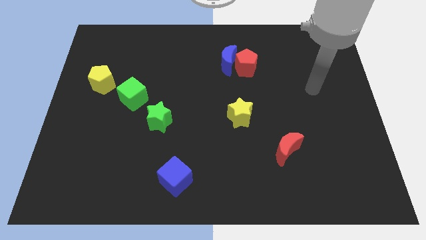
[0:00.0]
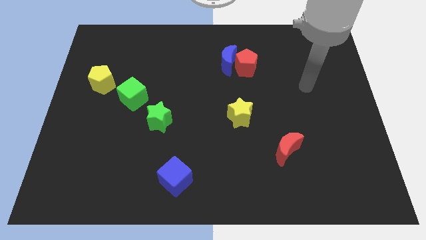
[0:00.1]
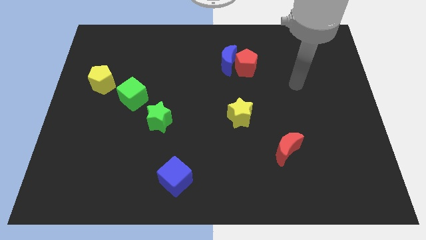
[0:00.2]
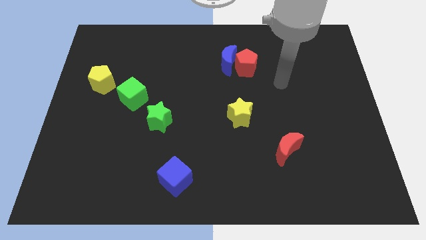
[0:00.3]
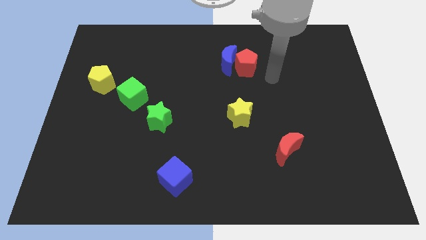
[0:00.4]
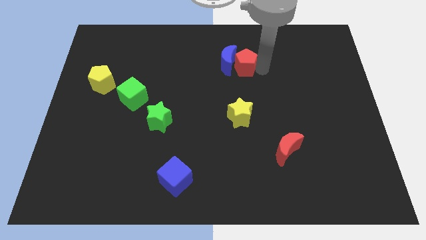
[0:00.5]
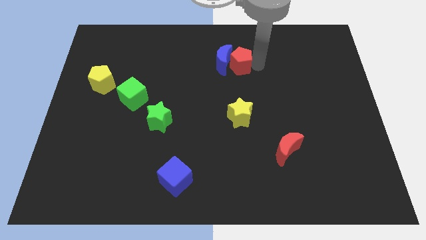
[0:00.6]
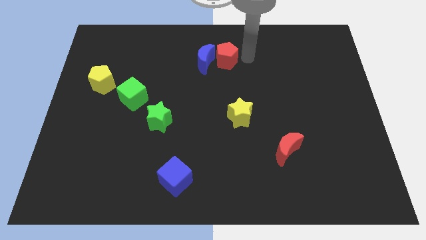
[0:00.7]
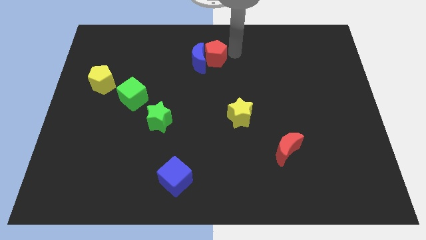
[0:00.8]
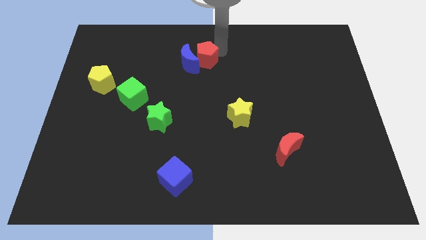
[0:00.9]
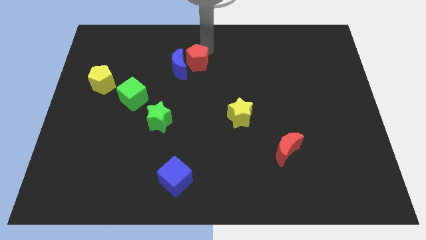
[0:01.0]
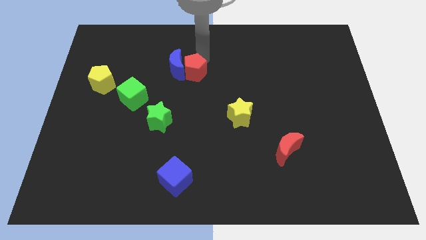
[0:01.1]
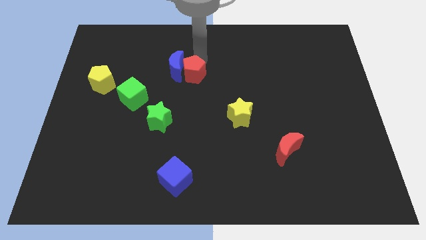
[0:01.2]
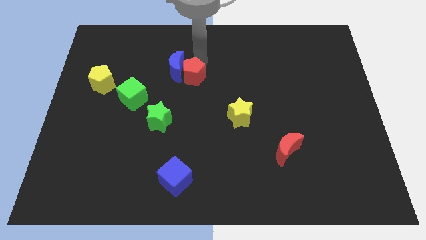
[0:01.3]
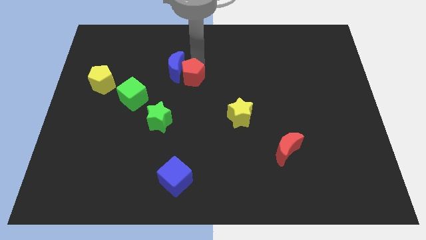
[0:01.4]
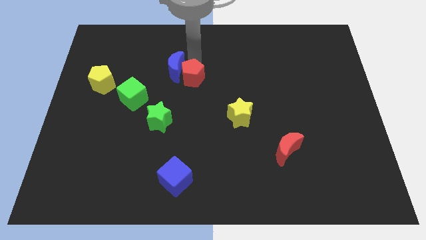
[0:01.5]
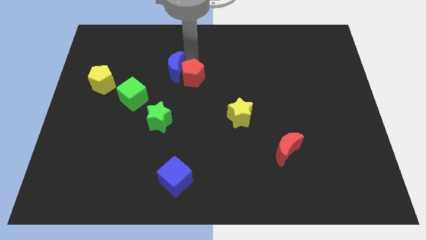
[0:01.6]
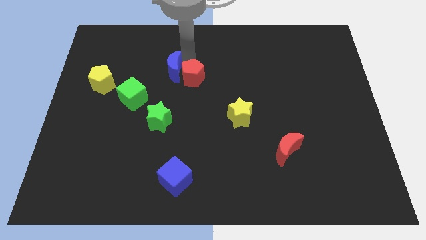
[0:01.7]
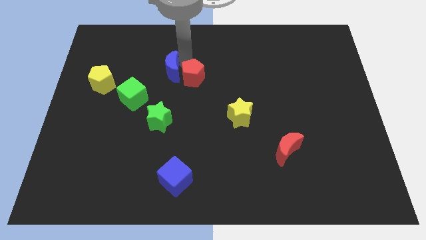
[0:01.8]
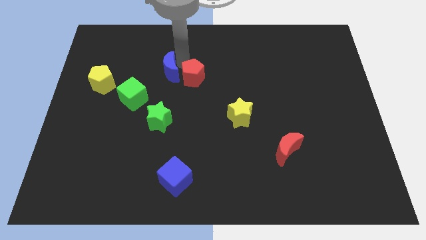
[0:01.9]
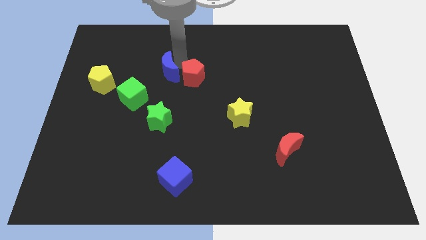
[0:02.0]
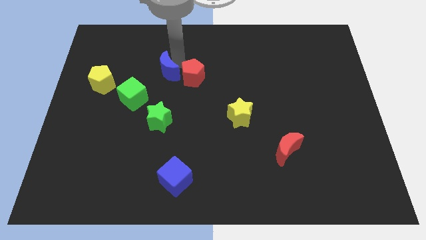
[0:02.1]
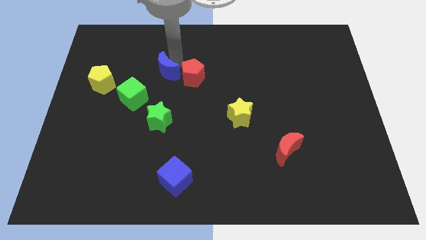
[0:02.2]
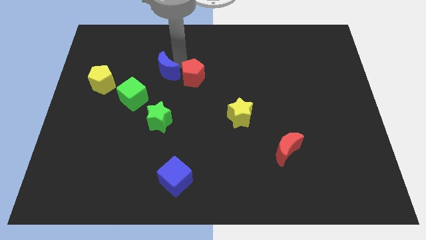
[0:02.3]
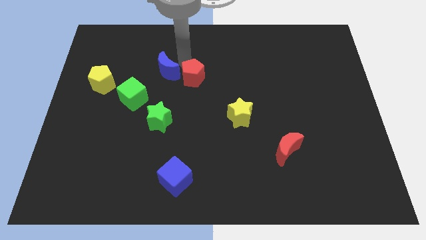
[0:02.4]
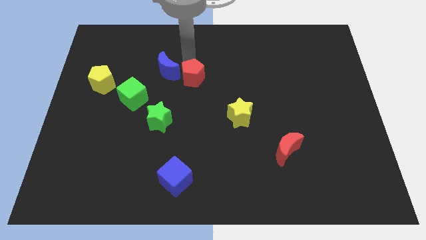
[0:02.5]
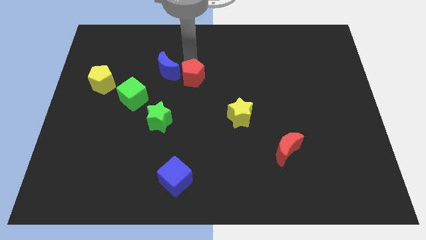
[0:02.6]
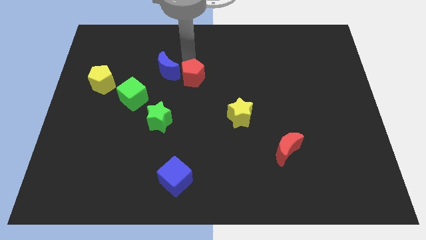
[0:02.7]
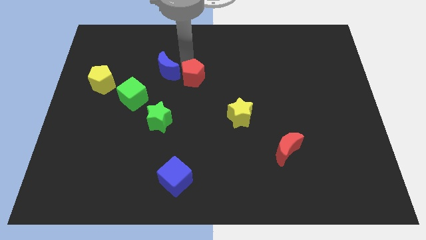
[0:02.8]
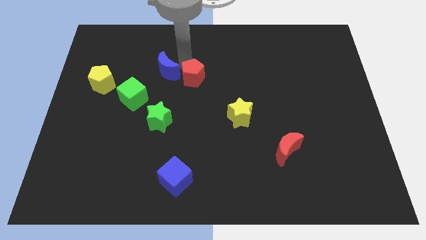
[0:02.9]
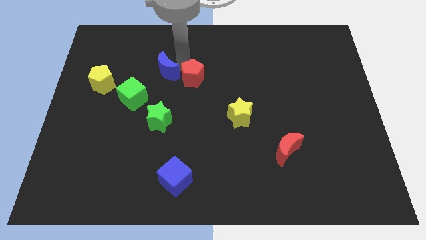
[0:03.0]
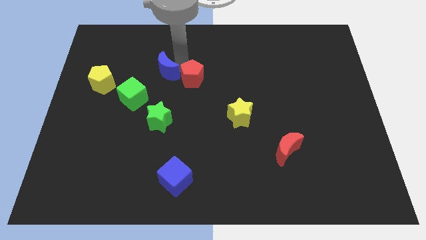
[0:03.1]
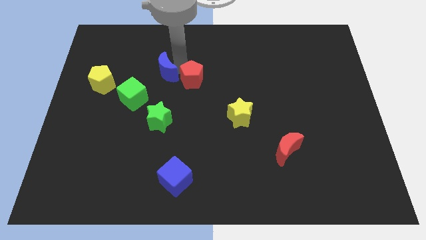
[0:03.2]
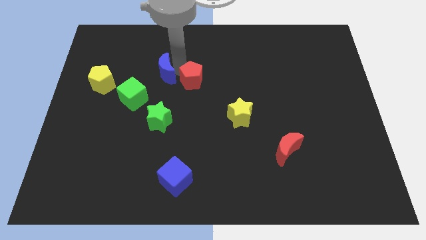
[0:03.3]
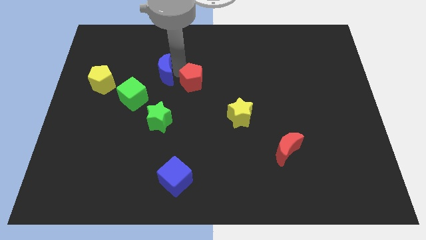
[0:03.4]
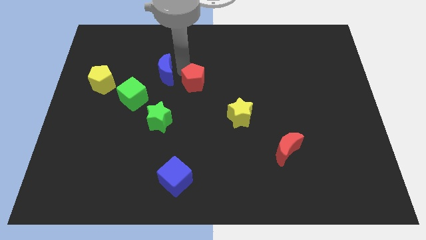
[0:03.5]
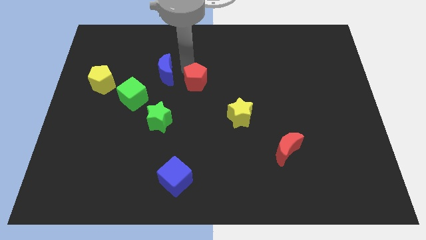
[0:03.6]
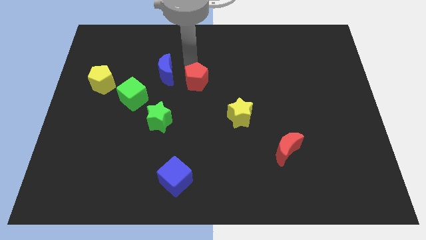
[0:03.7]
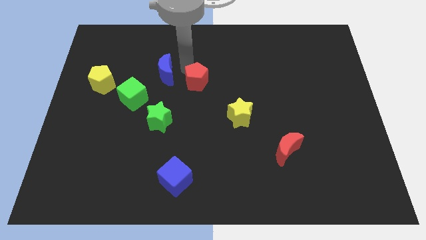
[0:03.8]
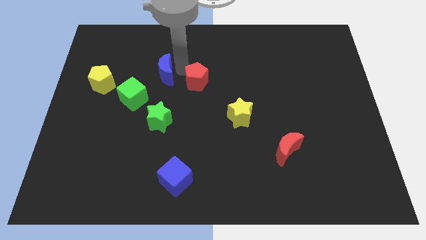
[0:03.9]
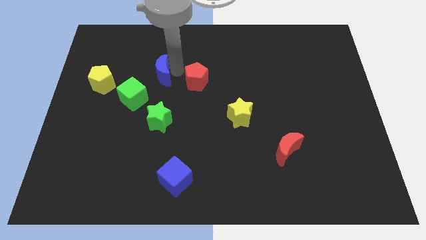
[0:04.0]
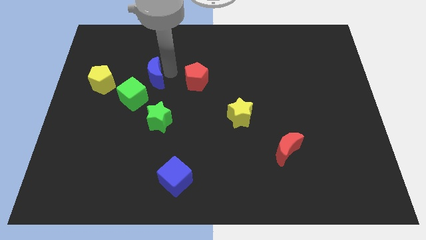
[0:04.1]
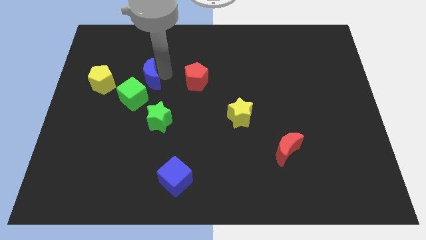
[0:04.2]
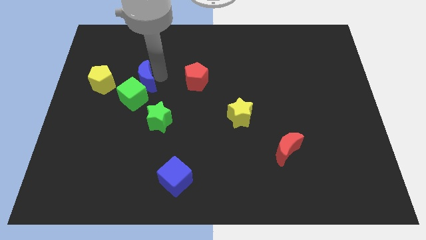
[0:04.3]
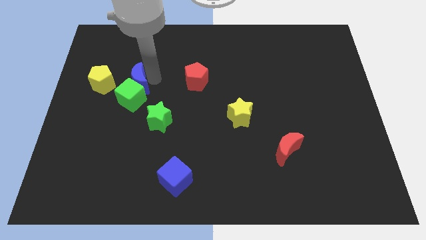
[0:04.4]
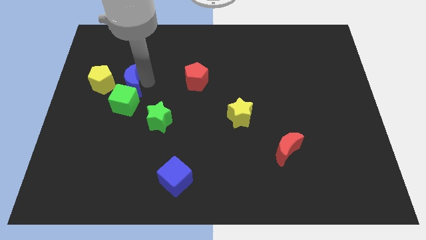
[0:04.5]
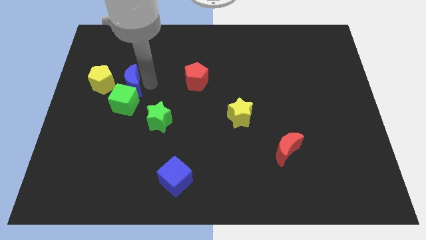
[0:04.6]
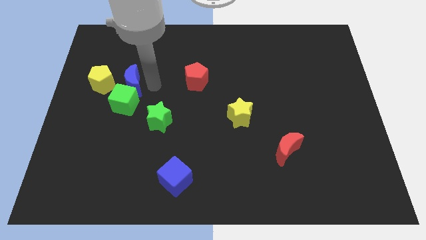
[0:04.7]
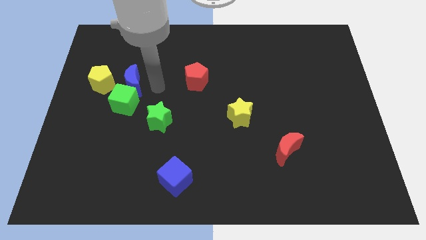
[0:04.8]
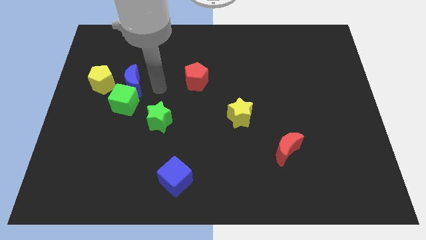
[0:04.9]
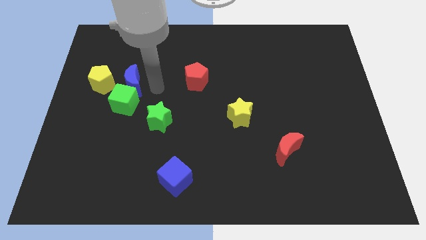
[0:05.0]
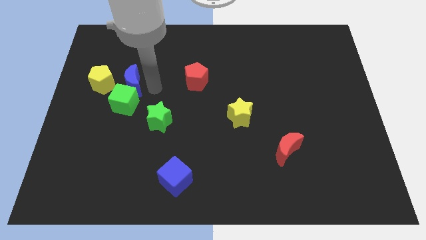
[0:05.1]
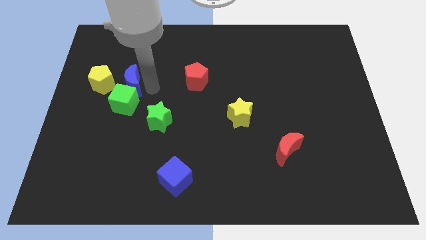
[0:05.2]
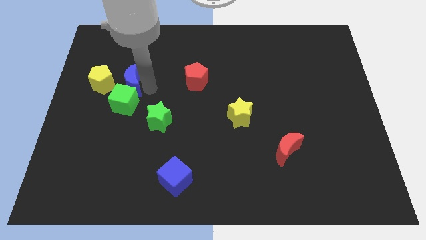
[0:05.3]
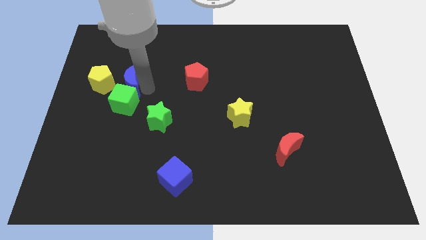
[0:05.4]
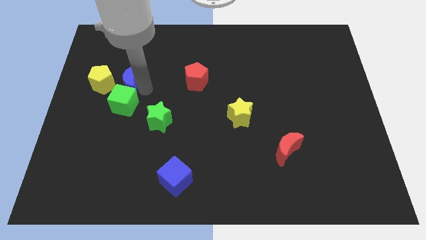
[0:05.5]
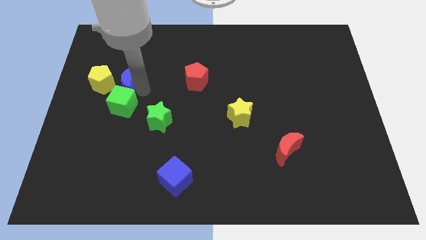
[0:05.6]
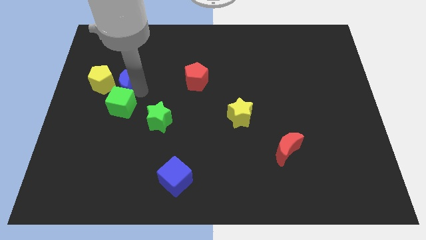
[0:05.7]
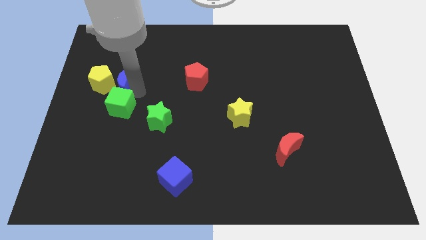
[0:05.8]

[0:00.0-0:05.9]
push the blue moon to the yellow pentagon

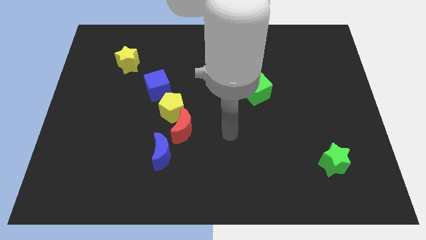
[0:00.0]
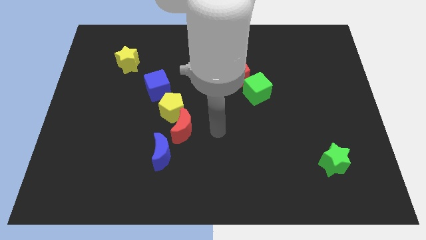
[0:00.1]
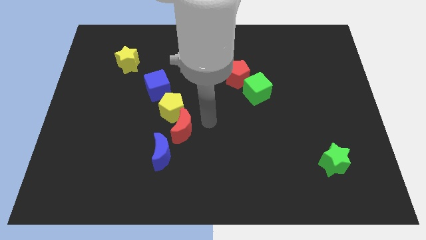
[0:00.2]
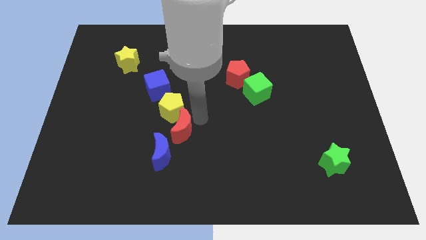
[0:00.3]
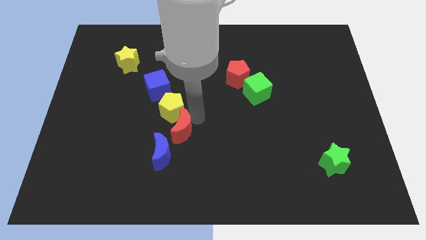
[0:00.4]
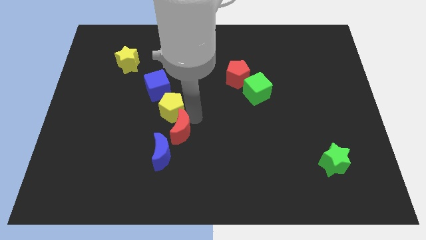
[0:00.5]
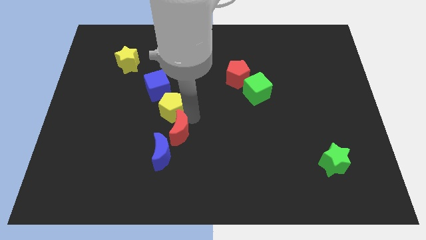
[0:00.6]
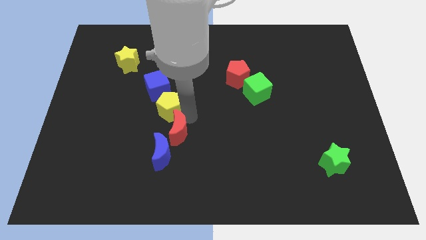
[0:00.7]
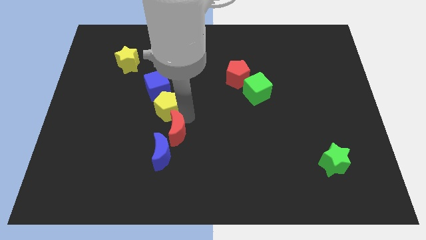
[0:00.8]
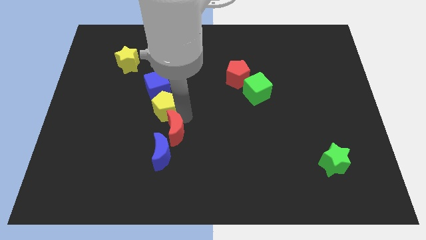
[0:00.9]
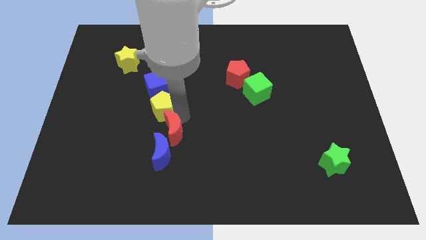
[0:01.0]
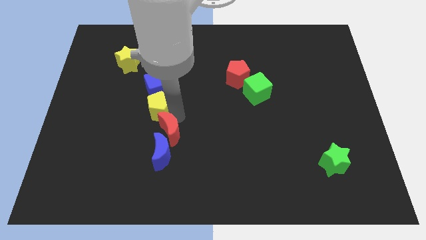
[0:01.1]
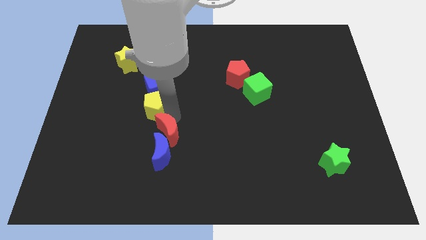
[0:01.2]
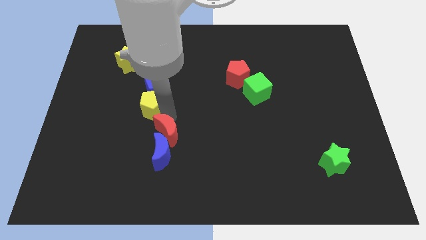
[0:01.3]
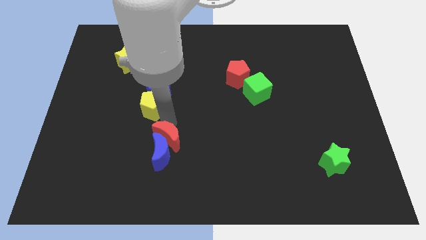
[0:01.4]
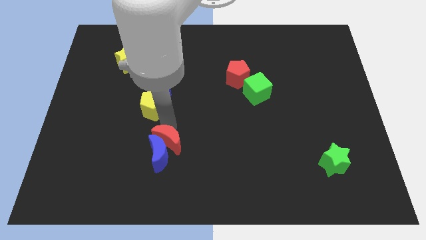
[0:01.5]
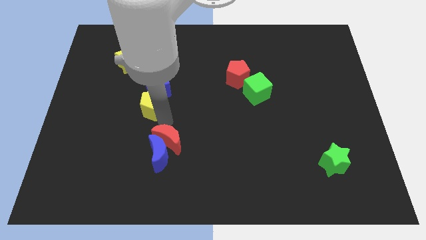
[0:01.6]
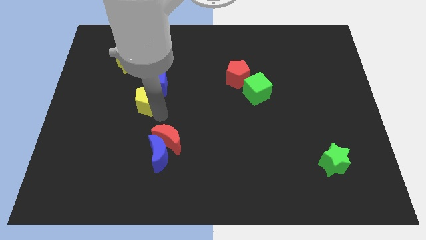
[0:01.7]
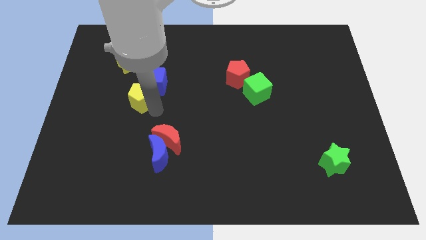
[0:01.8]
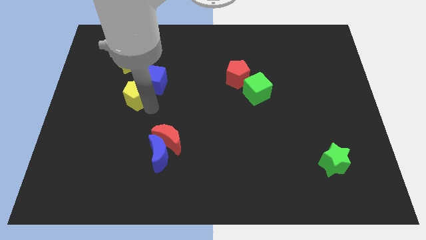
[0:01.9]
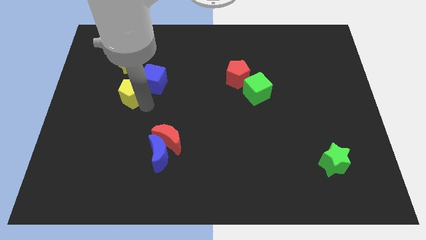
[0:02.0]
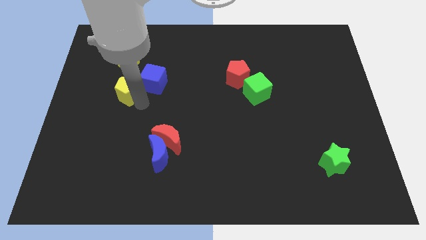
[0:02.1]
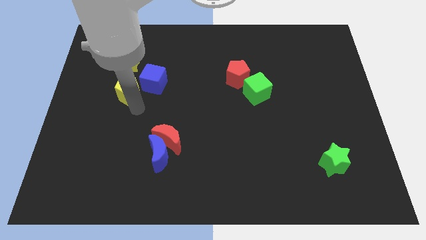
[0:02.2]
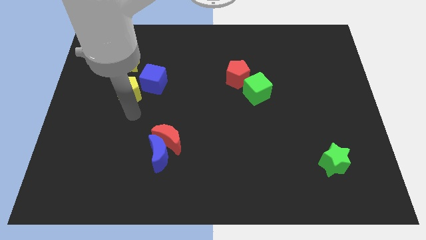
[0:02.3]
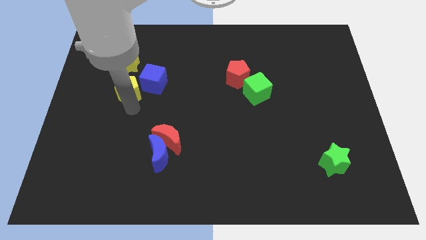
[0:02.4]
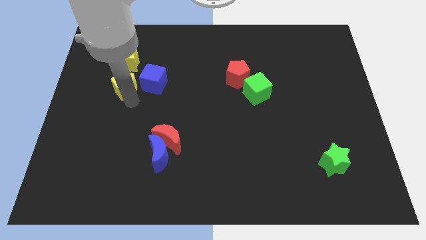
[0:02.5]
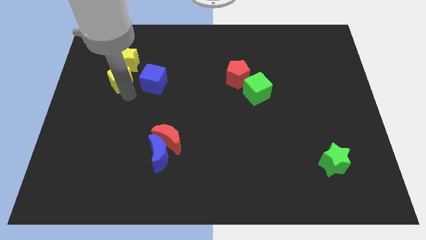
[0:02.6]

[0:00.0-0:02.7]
move the yellow pentagon next to the yellow star
